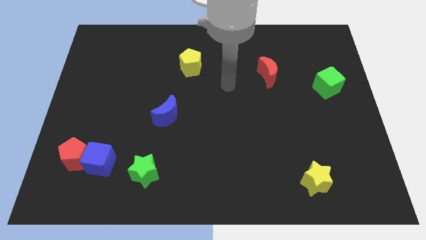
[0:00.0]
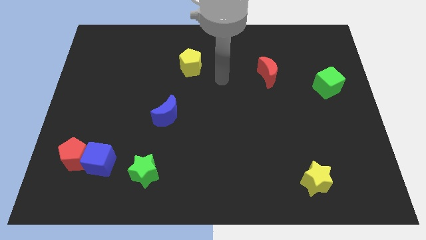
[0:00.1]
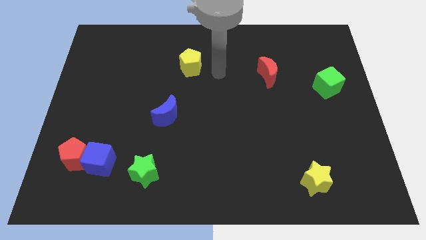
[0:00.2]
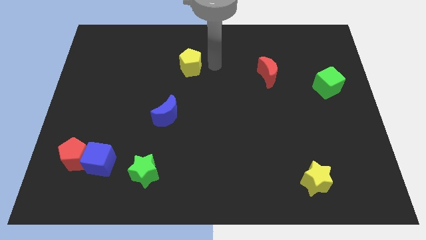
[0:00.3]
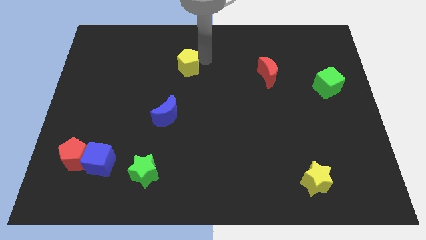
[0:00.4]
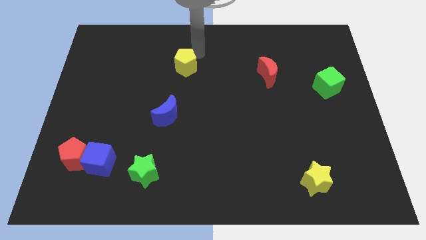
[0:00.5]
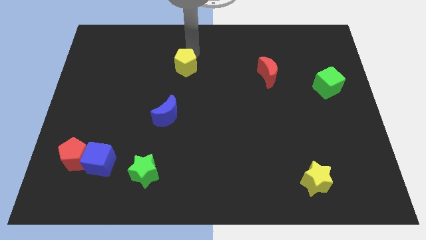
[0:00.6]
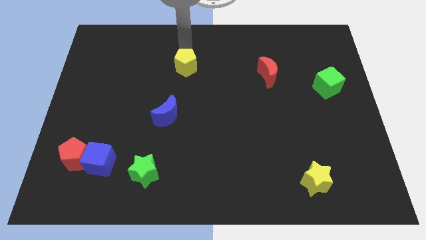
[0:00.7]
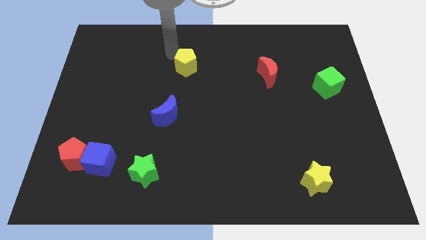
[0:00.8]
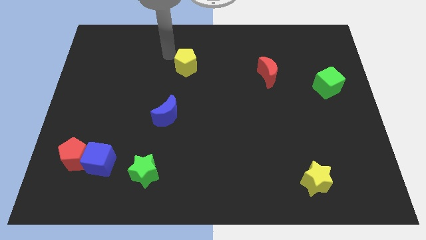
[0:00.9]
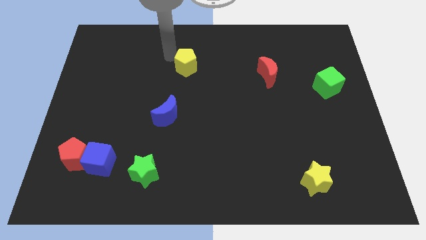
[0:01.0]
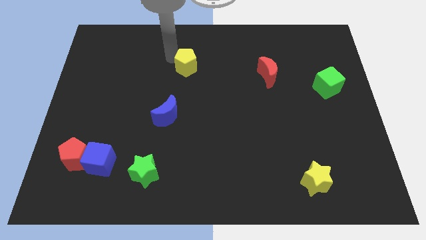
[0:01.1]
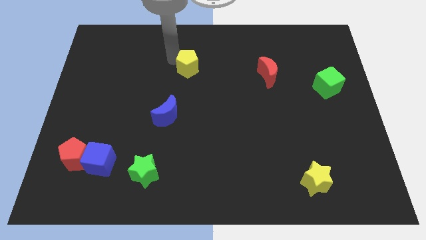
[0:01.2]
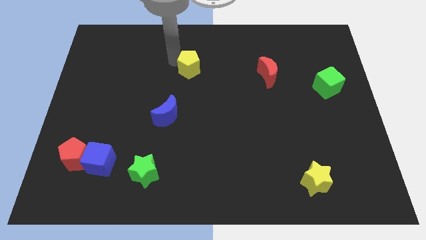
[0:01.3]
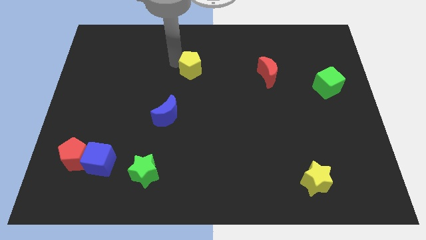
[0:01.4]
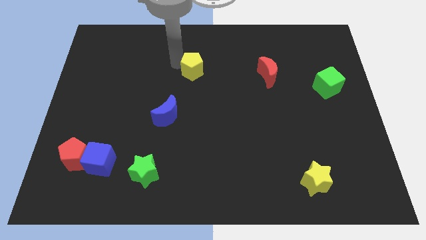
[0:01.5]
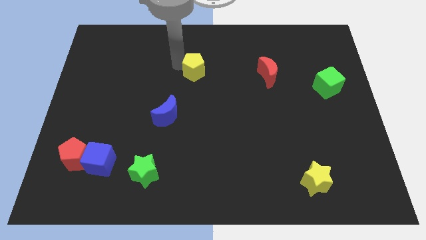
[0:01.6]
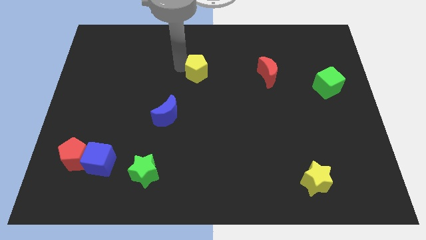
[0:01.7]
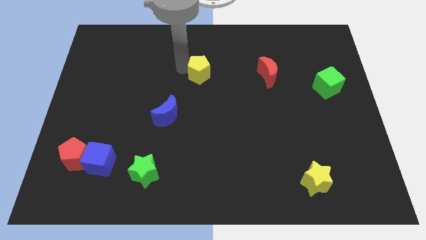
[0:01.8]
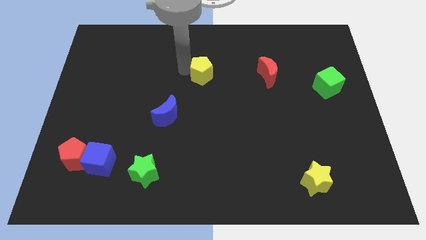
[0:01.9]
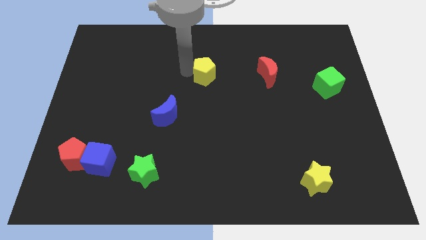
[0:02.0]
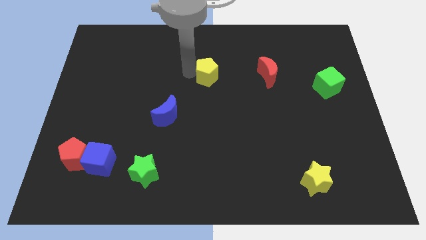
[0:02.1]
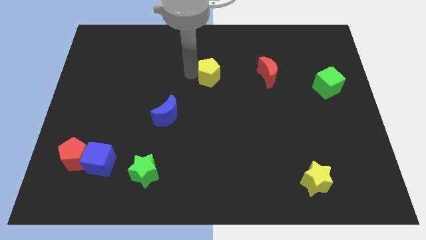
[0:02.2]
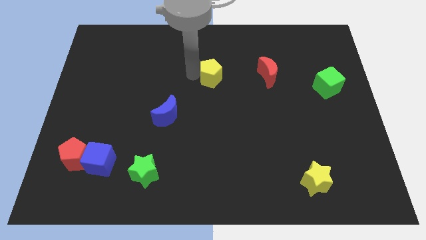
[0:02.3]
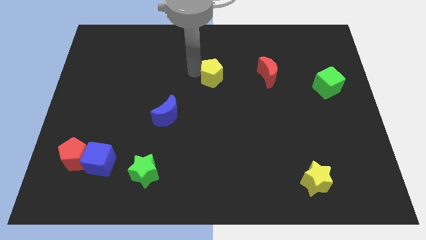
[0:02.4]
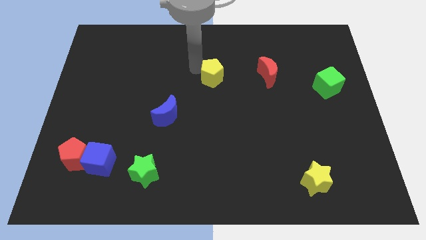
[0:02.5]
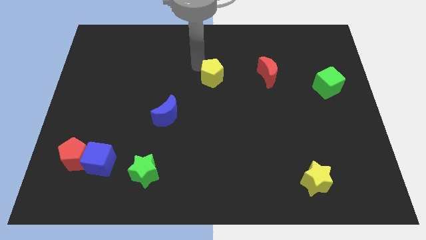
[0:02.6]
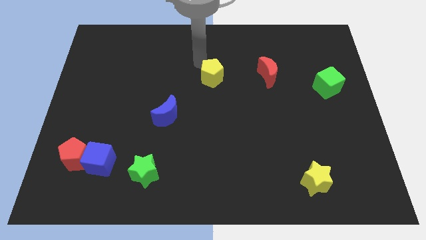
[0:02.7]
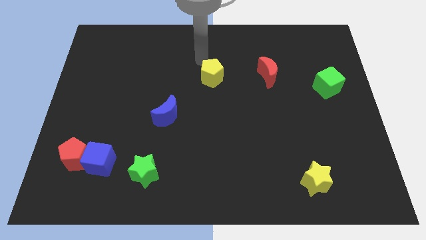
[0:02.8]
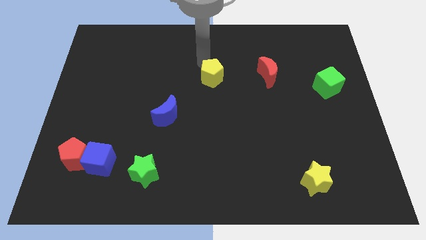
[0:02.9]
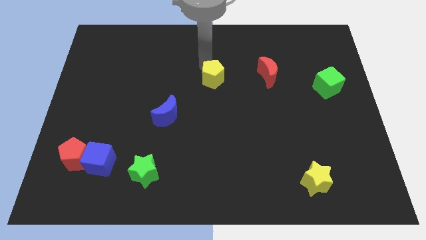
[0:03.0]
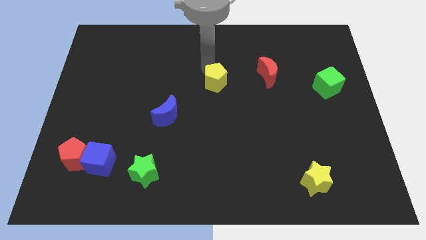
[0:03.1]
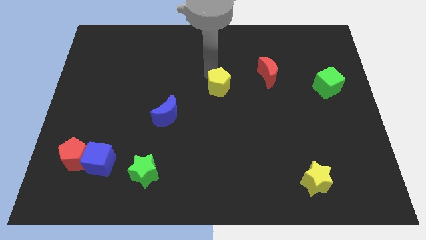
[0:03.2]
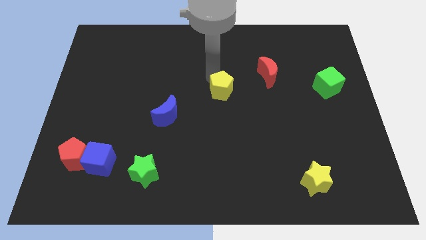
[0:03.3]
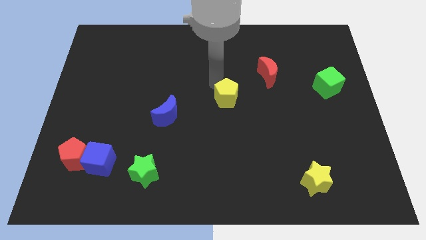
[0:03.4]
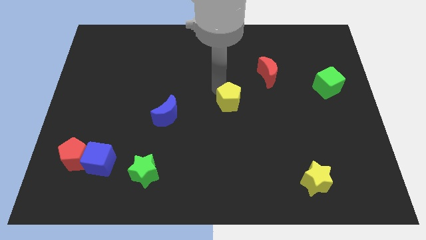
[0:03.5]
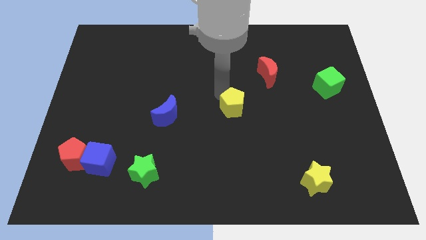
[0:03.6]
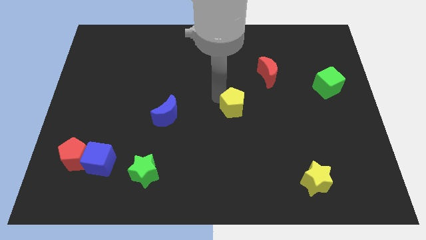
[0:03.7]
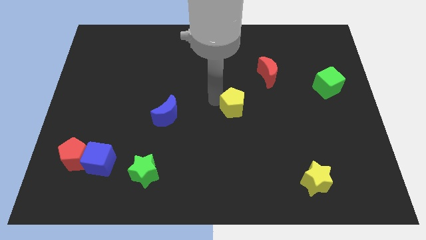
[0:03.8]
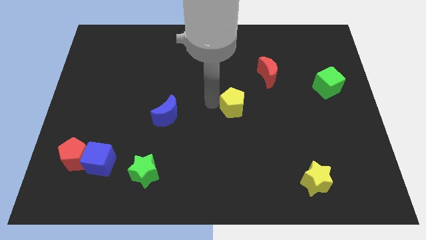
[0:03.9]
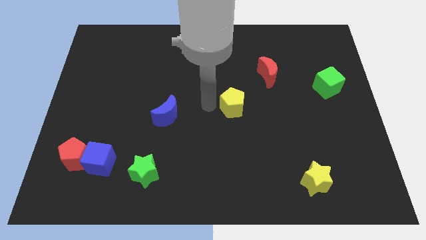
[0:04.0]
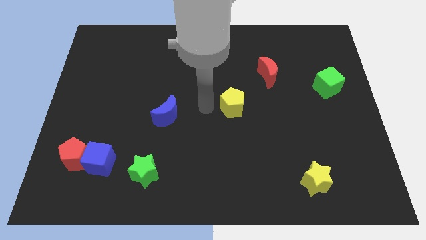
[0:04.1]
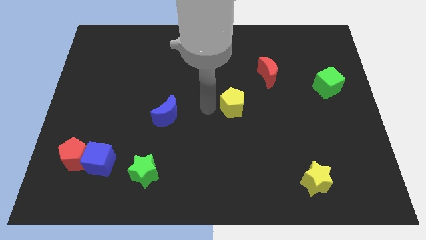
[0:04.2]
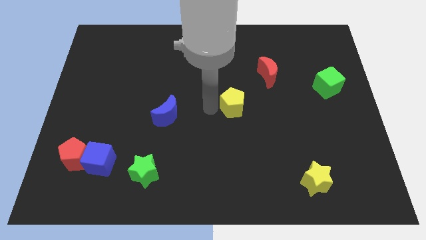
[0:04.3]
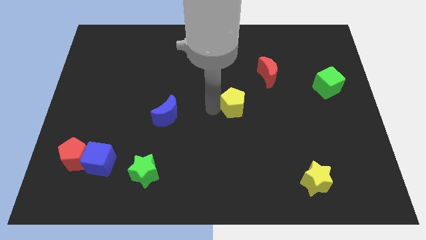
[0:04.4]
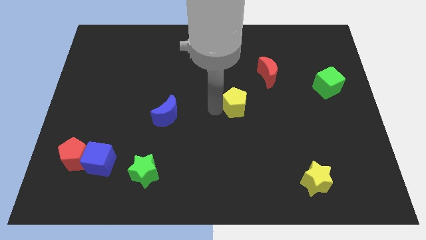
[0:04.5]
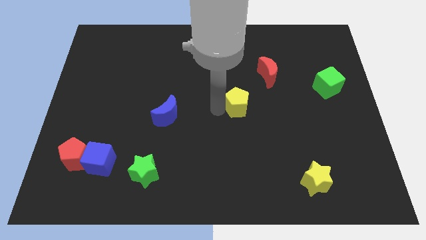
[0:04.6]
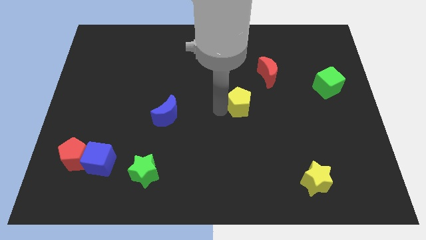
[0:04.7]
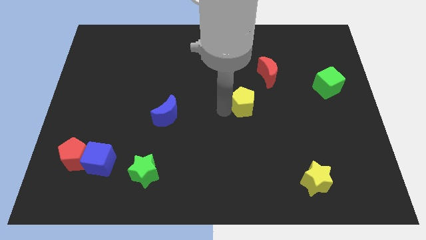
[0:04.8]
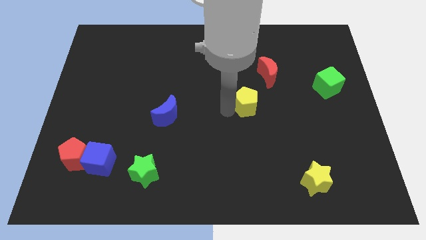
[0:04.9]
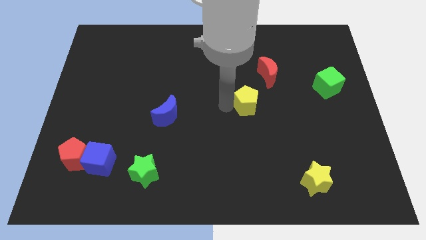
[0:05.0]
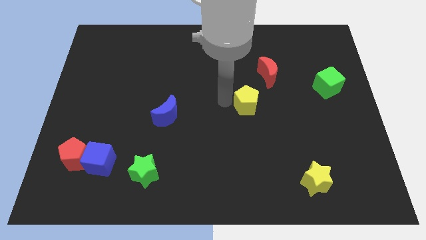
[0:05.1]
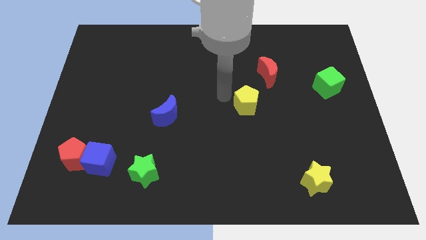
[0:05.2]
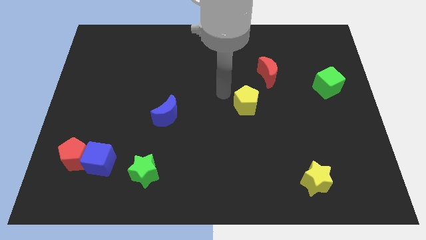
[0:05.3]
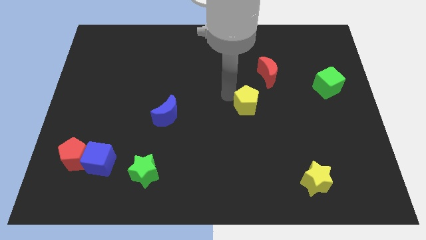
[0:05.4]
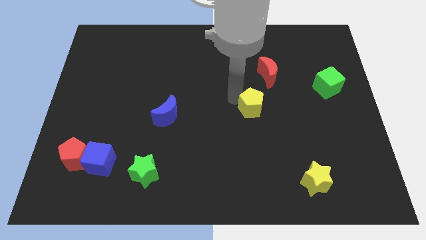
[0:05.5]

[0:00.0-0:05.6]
slide the yellow pentagon down and to the right

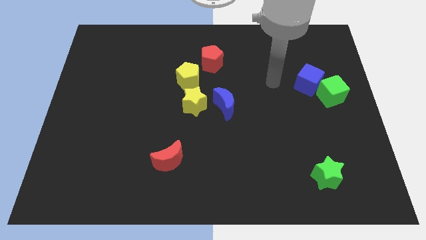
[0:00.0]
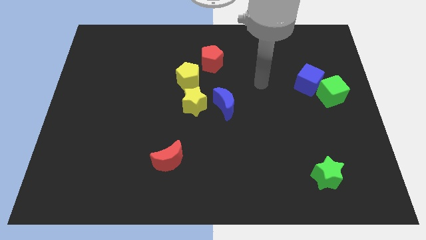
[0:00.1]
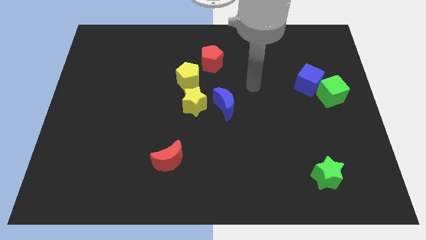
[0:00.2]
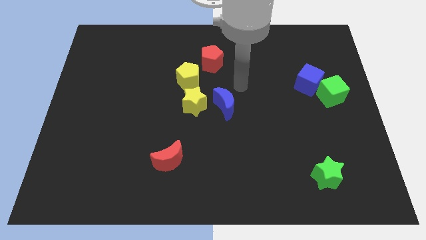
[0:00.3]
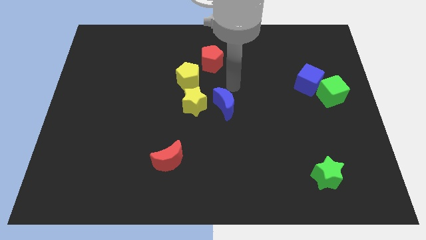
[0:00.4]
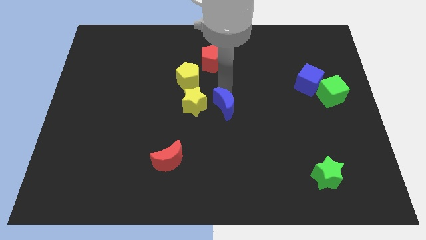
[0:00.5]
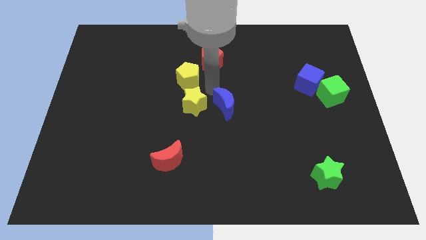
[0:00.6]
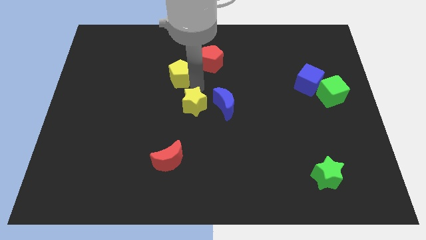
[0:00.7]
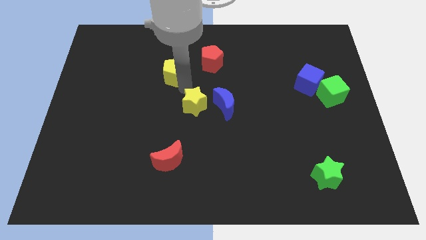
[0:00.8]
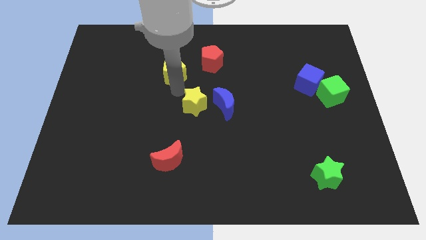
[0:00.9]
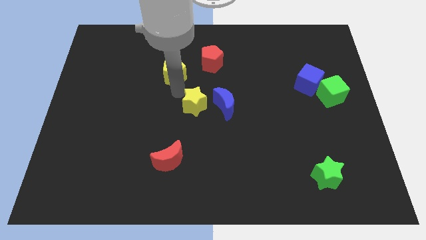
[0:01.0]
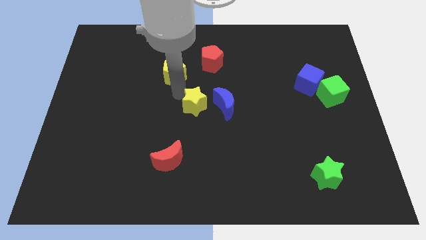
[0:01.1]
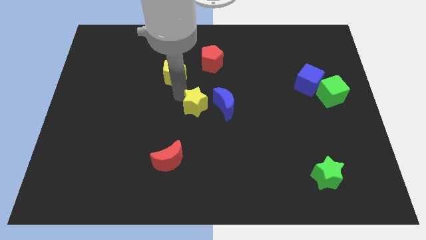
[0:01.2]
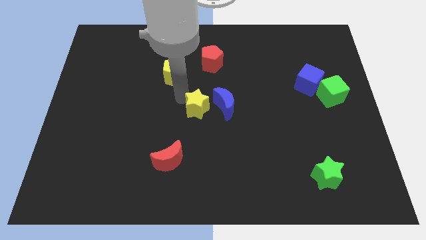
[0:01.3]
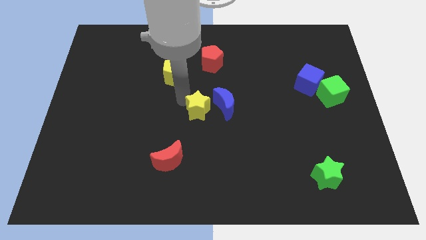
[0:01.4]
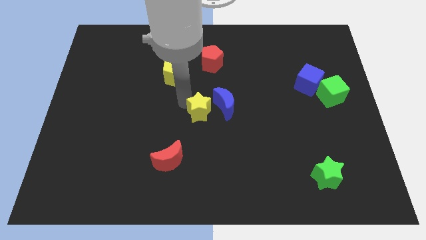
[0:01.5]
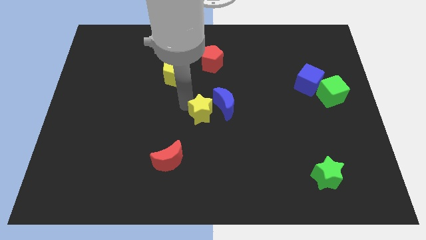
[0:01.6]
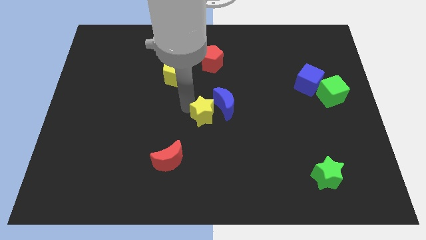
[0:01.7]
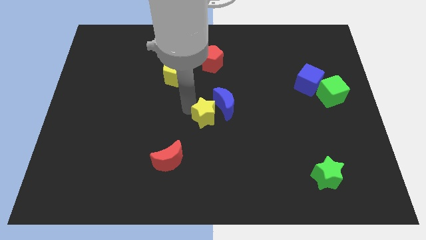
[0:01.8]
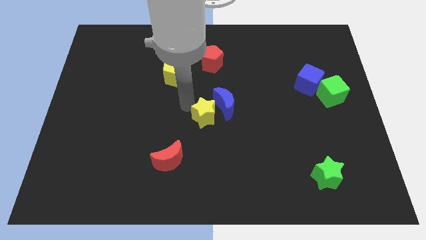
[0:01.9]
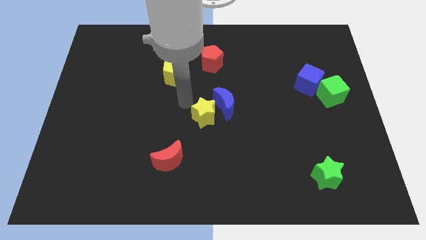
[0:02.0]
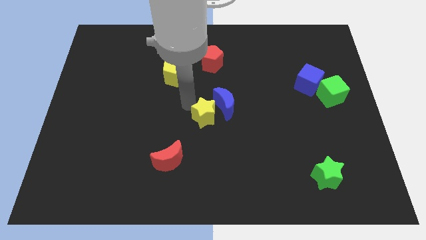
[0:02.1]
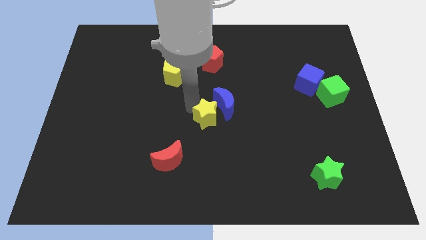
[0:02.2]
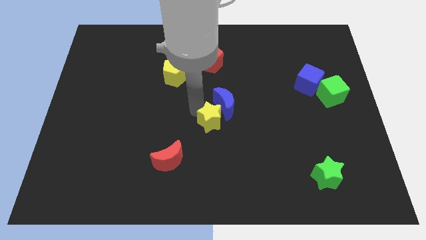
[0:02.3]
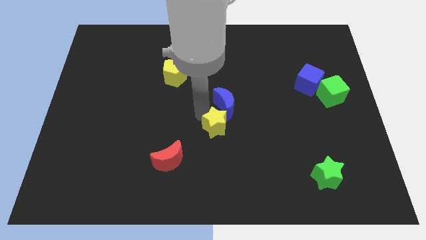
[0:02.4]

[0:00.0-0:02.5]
slightly push the yellow star down and to the right
